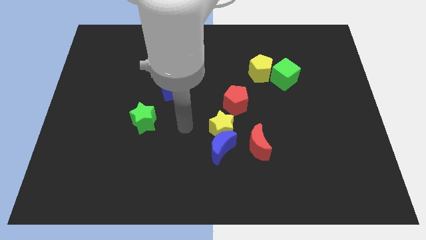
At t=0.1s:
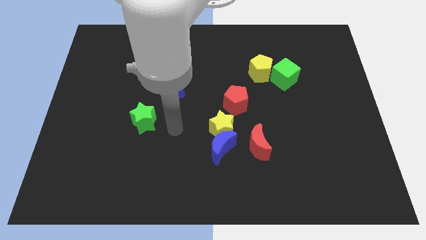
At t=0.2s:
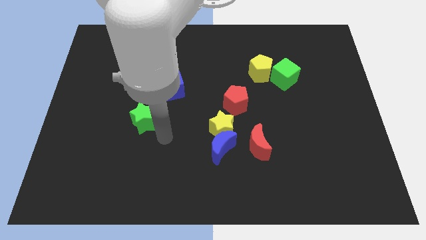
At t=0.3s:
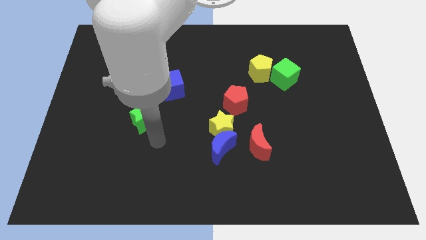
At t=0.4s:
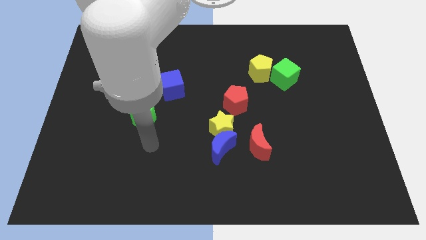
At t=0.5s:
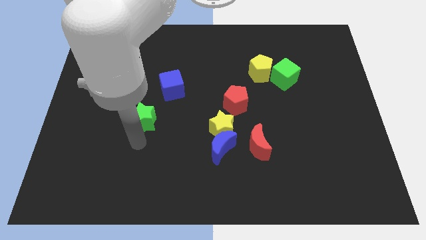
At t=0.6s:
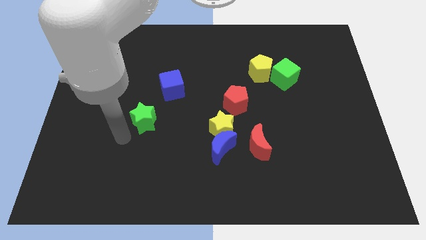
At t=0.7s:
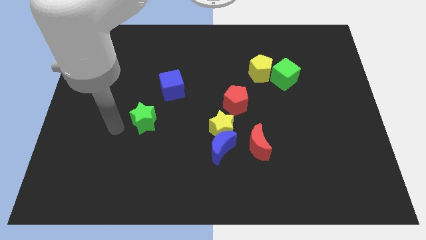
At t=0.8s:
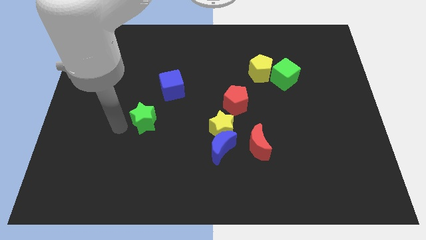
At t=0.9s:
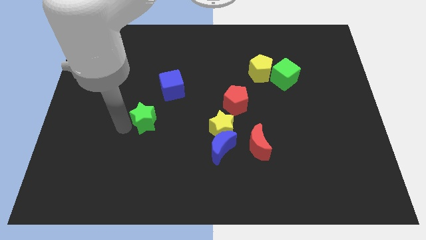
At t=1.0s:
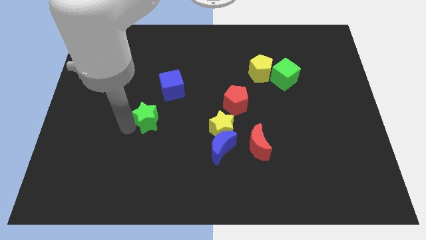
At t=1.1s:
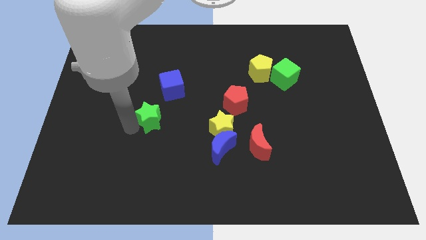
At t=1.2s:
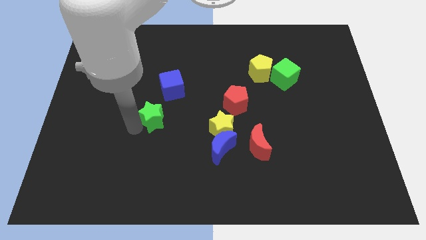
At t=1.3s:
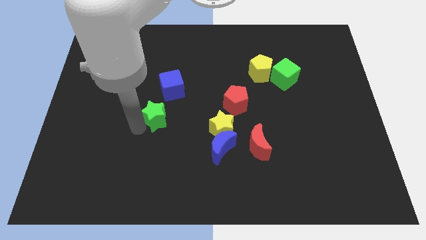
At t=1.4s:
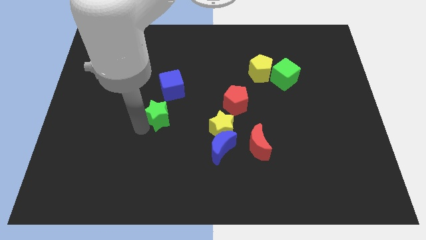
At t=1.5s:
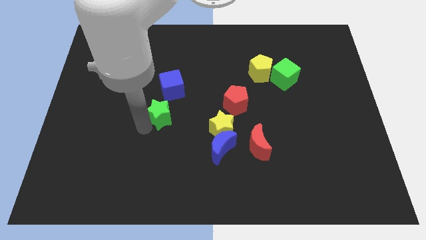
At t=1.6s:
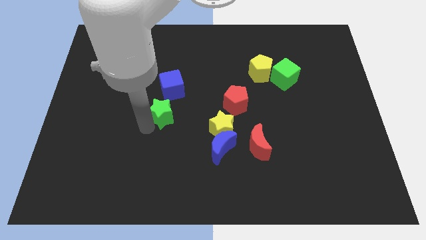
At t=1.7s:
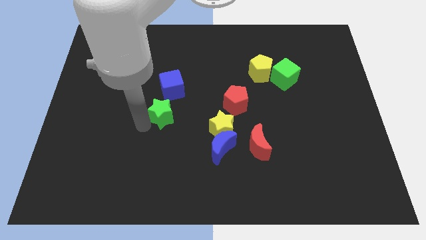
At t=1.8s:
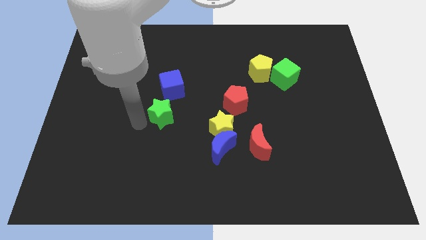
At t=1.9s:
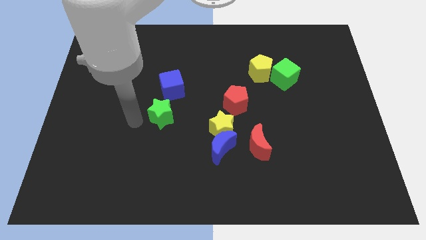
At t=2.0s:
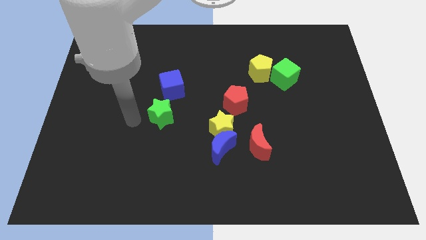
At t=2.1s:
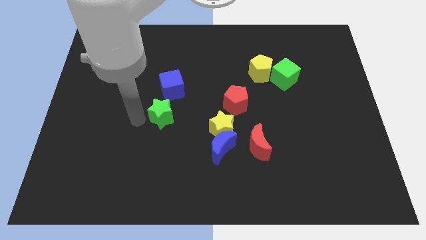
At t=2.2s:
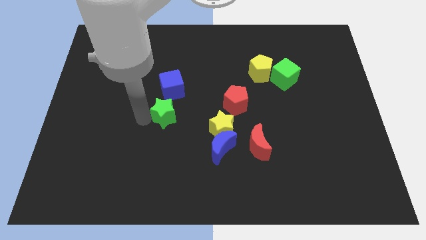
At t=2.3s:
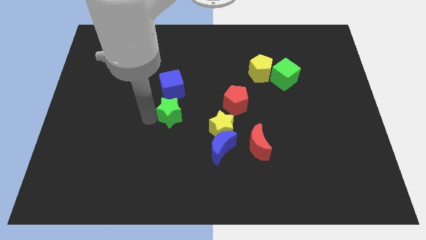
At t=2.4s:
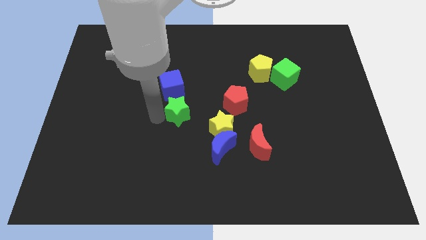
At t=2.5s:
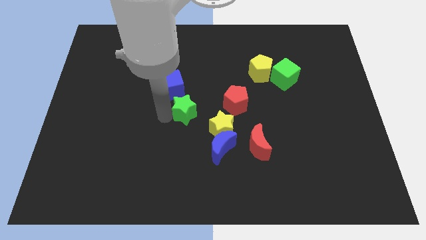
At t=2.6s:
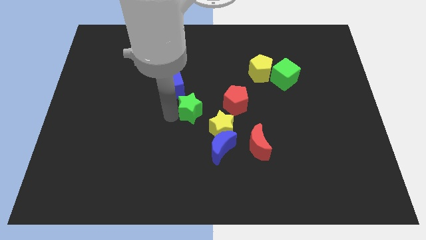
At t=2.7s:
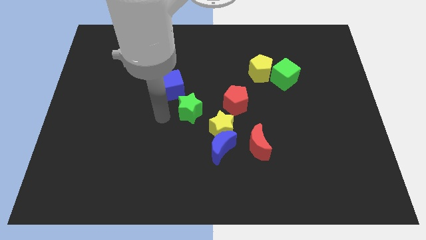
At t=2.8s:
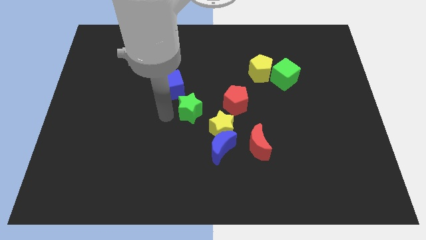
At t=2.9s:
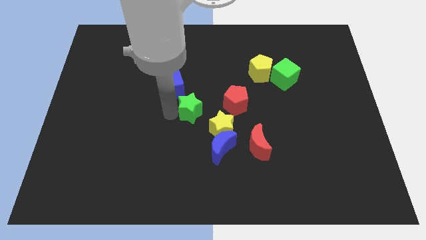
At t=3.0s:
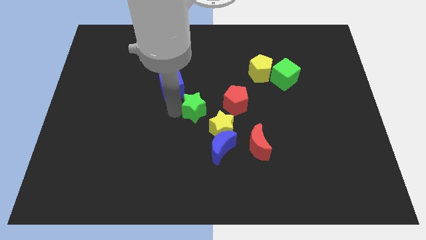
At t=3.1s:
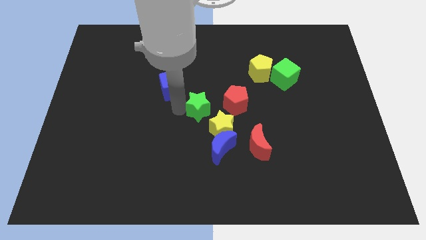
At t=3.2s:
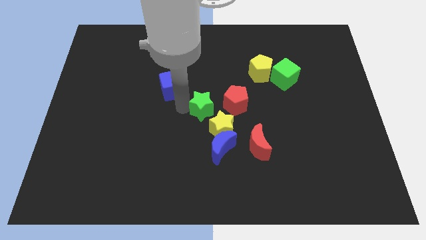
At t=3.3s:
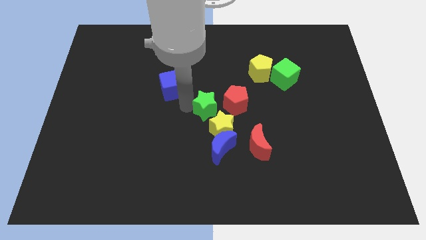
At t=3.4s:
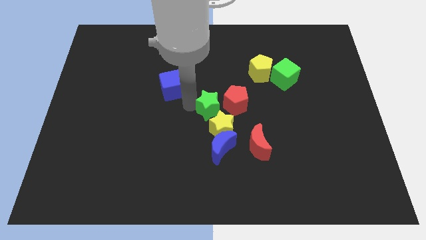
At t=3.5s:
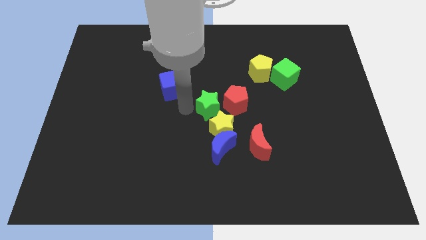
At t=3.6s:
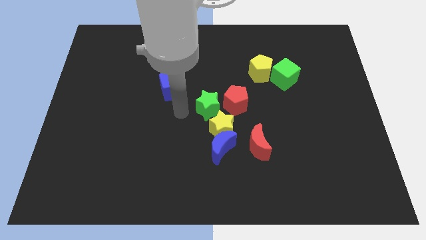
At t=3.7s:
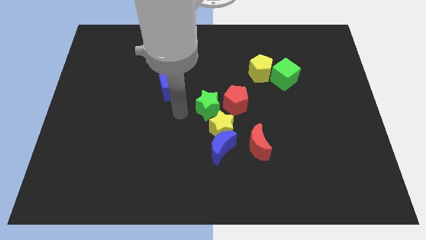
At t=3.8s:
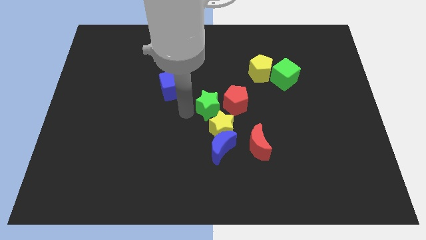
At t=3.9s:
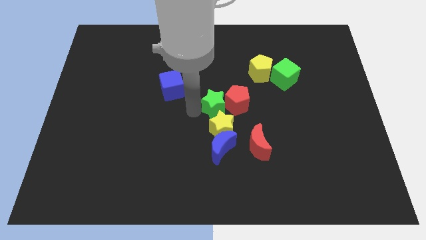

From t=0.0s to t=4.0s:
slide the green star close to the red pentagon

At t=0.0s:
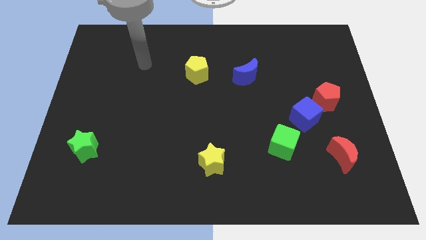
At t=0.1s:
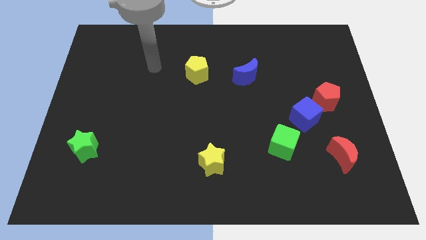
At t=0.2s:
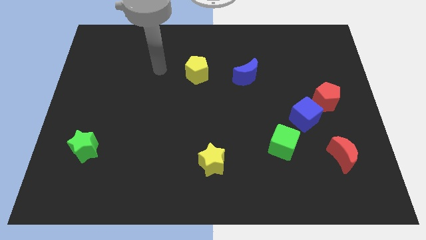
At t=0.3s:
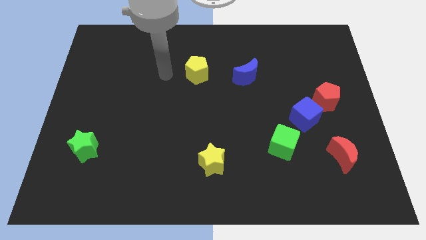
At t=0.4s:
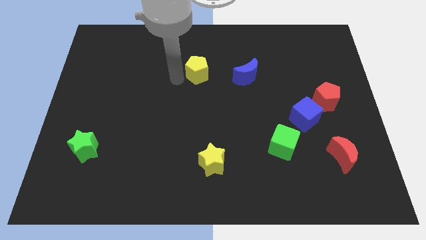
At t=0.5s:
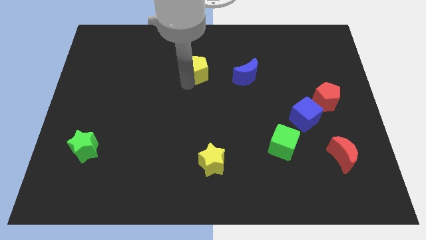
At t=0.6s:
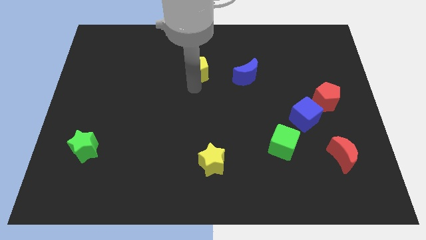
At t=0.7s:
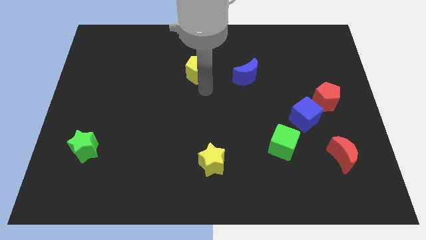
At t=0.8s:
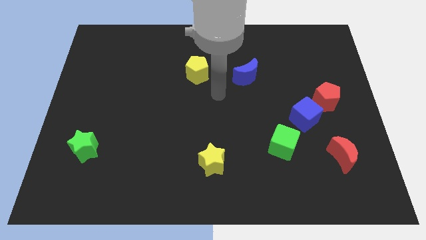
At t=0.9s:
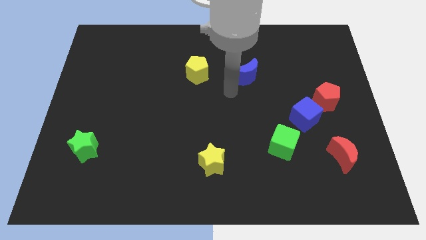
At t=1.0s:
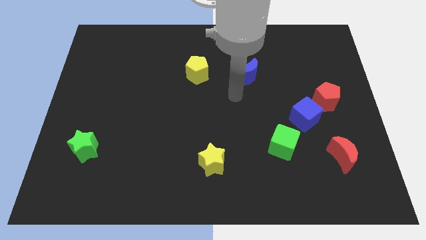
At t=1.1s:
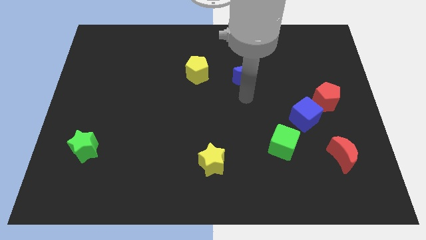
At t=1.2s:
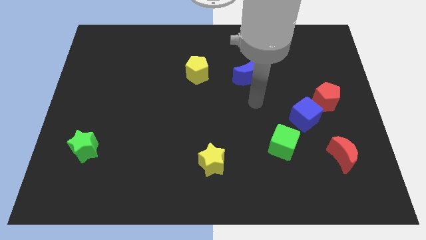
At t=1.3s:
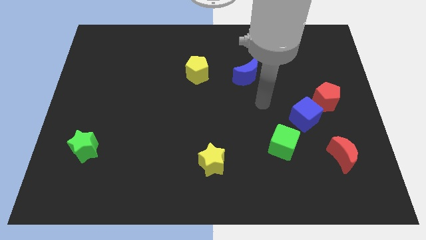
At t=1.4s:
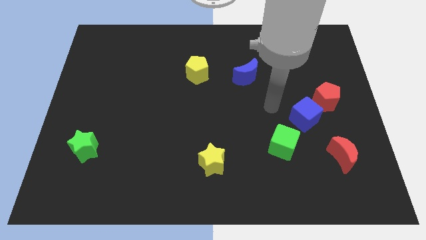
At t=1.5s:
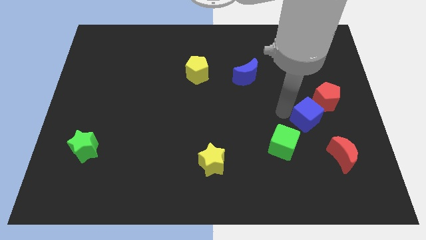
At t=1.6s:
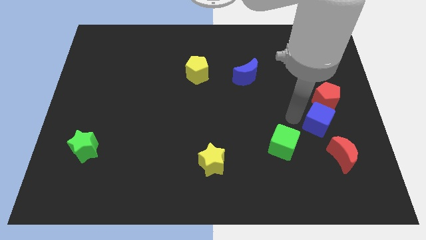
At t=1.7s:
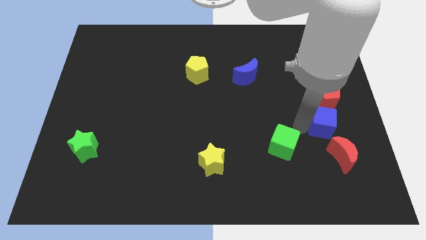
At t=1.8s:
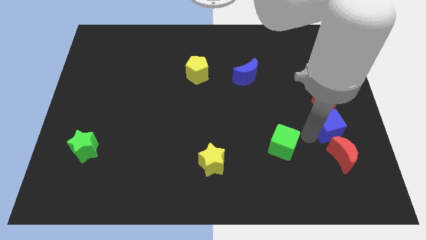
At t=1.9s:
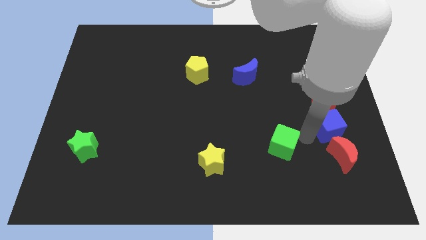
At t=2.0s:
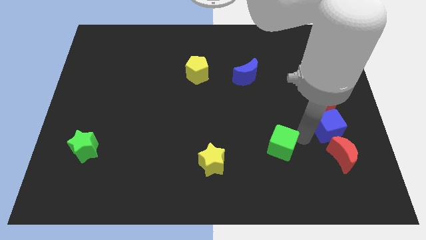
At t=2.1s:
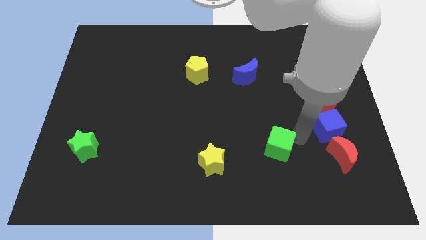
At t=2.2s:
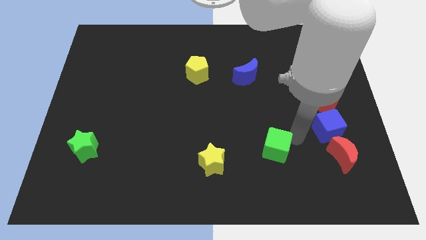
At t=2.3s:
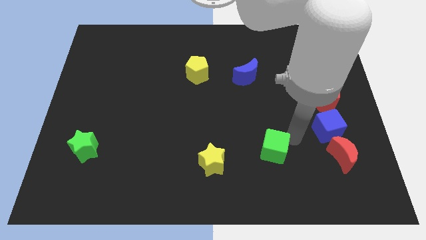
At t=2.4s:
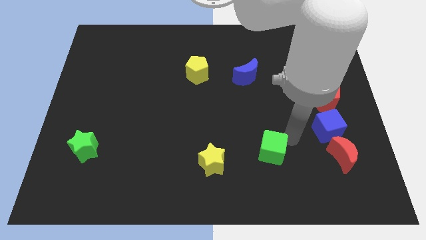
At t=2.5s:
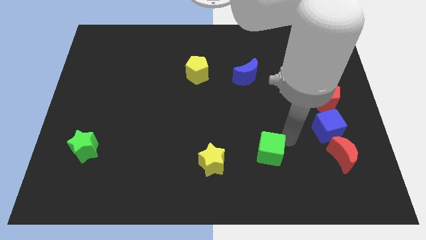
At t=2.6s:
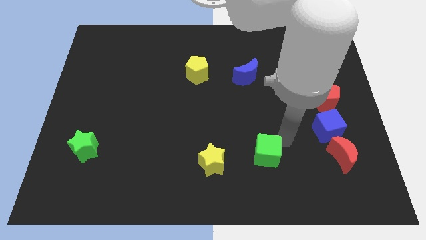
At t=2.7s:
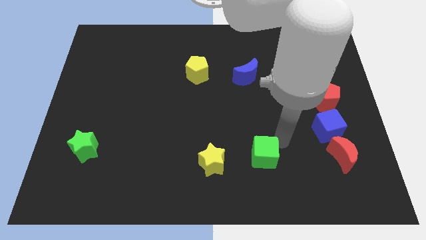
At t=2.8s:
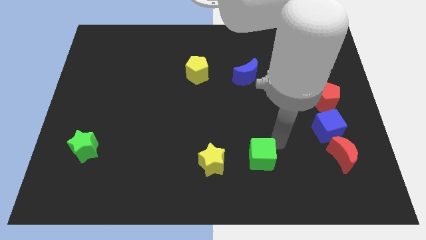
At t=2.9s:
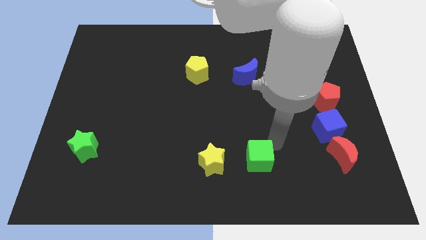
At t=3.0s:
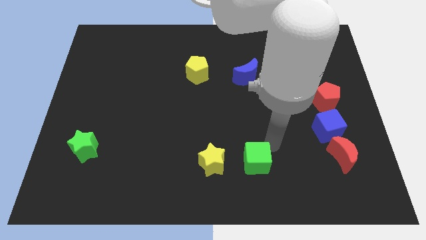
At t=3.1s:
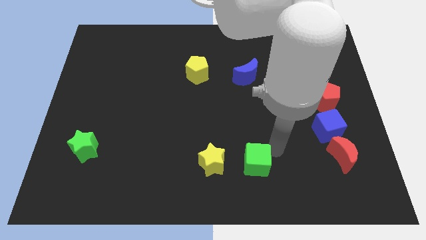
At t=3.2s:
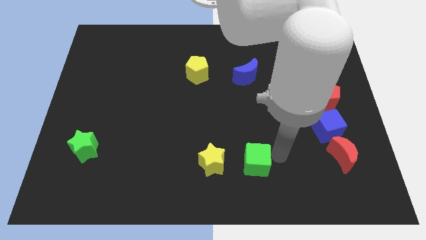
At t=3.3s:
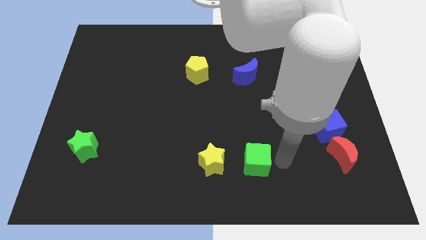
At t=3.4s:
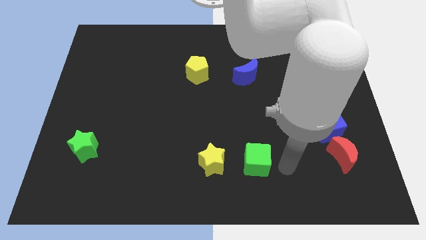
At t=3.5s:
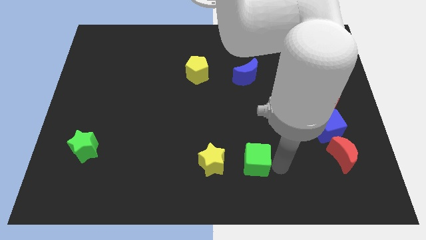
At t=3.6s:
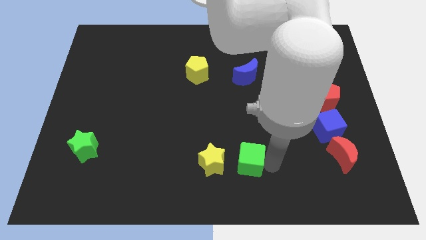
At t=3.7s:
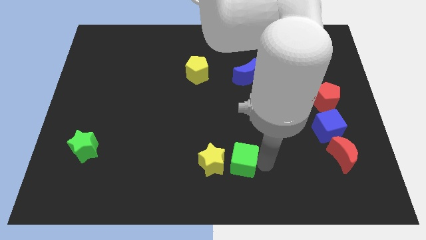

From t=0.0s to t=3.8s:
slide the green cube close to the yellow star
